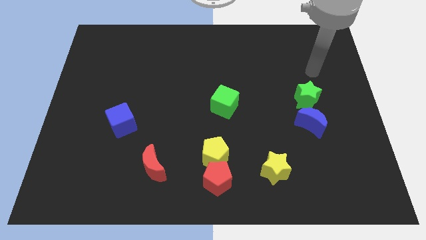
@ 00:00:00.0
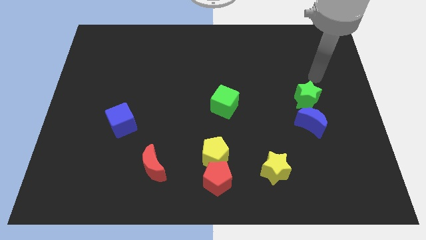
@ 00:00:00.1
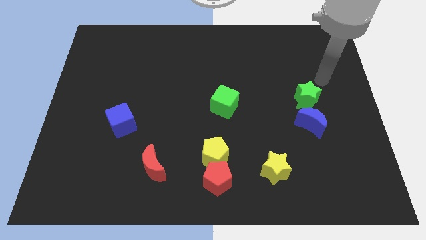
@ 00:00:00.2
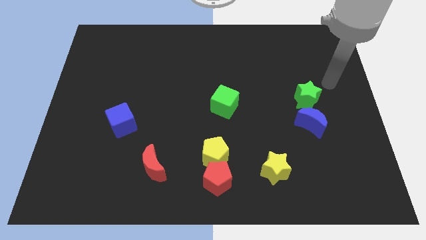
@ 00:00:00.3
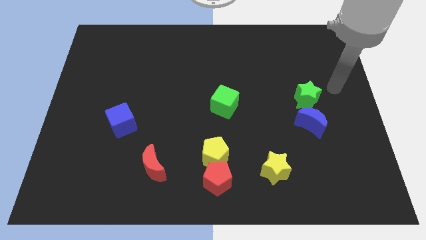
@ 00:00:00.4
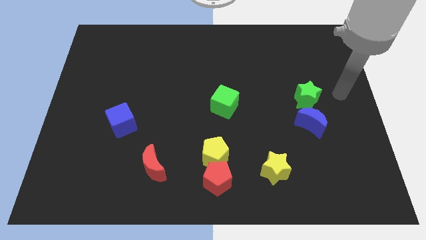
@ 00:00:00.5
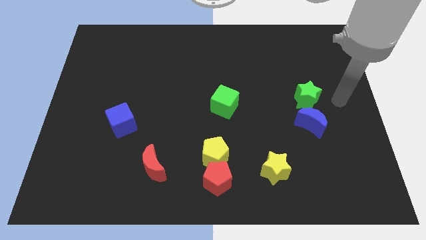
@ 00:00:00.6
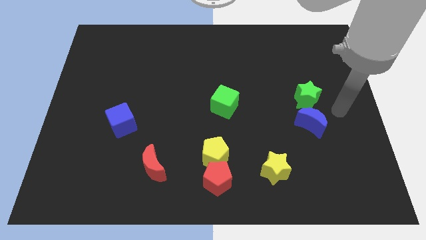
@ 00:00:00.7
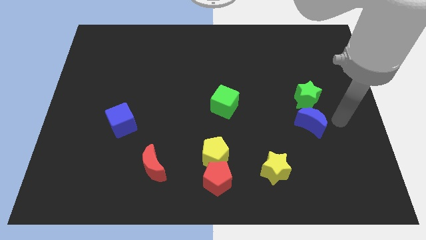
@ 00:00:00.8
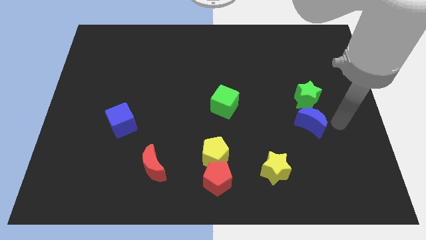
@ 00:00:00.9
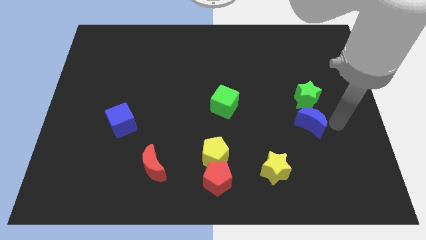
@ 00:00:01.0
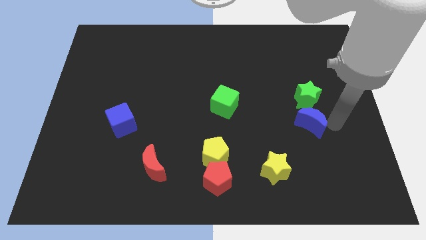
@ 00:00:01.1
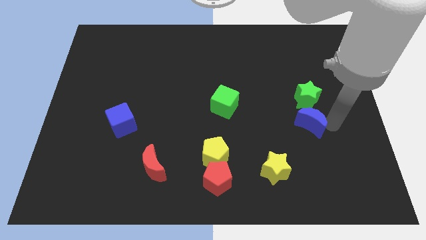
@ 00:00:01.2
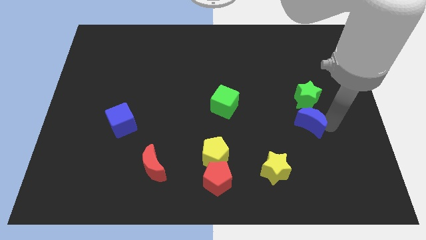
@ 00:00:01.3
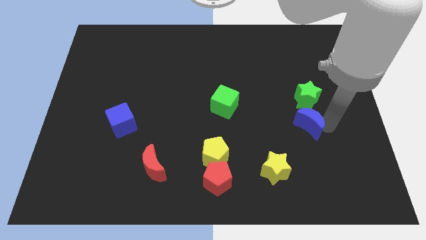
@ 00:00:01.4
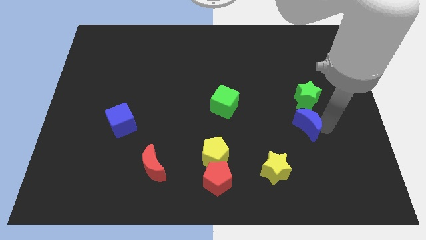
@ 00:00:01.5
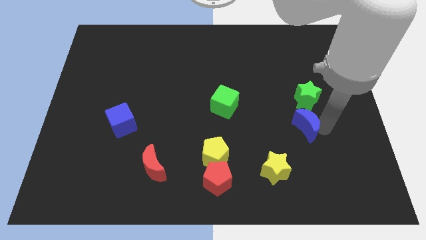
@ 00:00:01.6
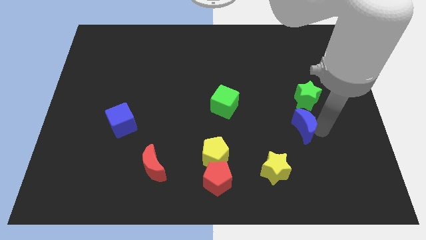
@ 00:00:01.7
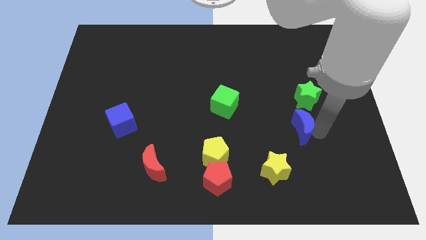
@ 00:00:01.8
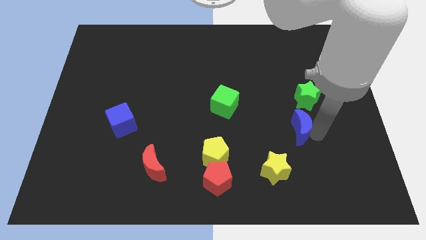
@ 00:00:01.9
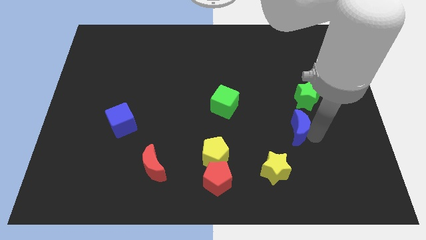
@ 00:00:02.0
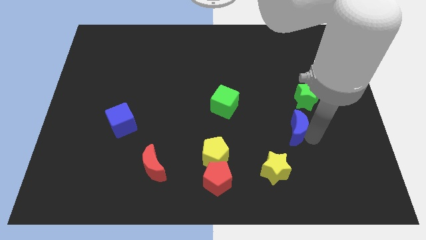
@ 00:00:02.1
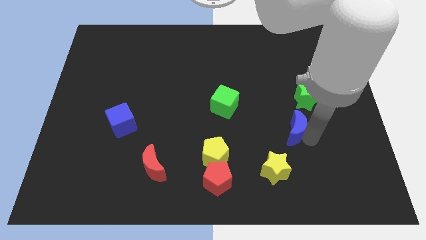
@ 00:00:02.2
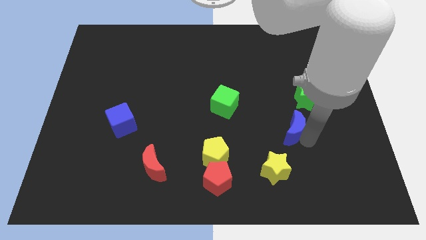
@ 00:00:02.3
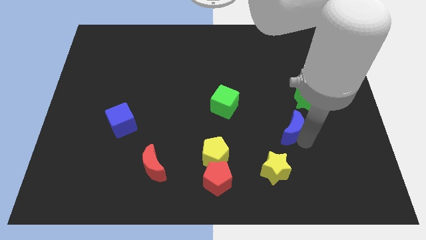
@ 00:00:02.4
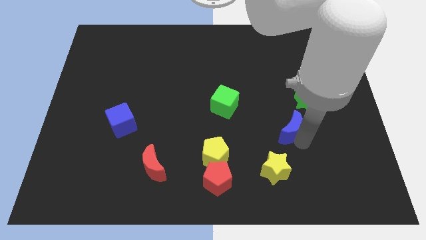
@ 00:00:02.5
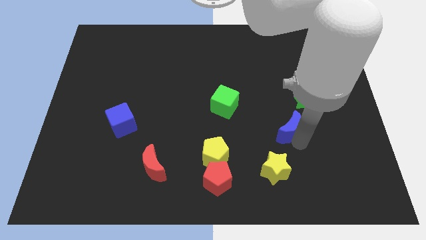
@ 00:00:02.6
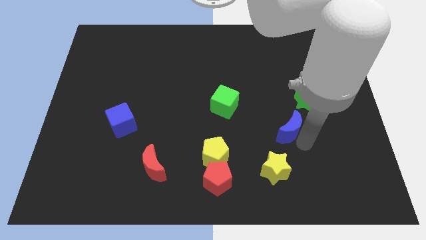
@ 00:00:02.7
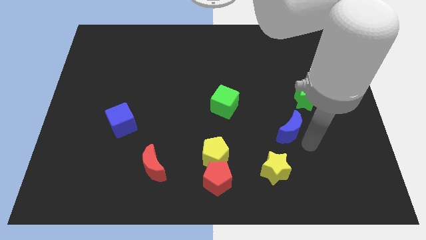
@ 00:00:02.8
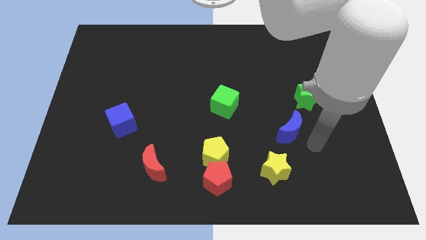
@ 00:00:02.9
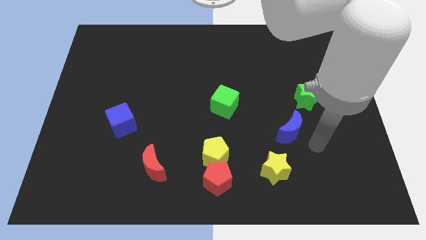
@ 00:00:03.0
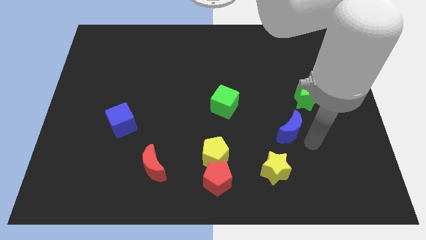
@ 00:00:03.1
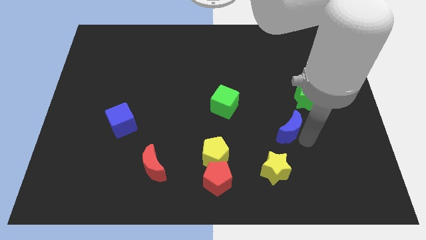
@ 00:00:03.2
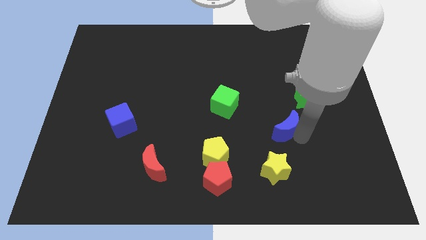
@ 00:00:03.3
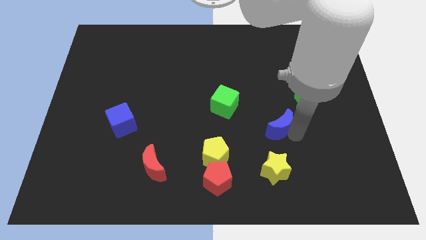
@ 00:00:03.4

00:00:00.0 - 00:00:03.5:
move the blue moon a bit to the left

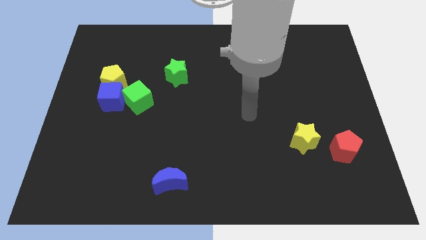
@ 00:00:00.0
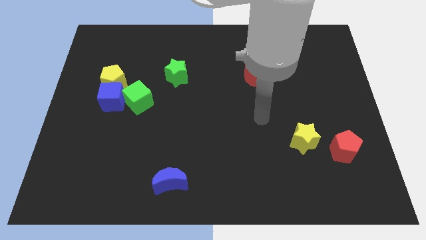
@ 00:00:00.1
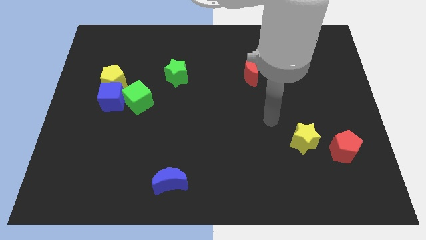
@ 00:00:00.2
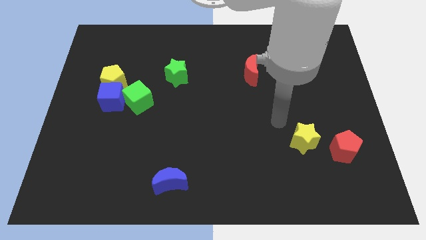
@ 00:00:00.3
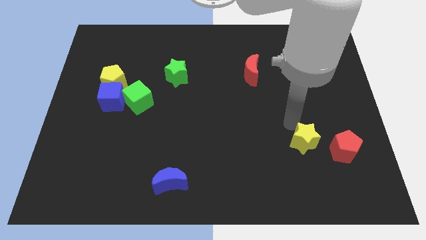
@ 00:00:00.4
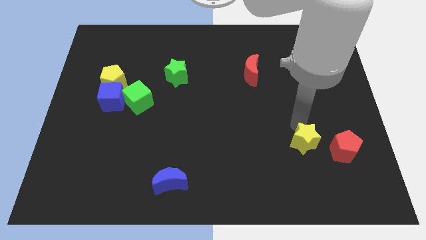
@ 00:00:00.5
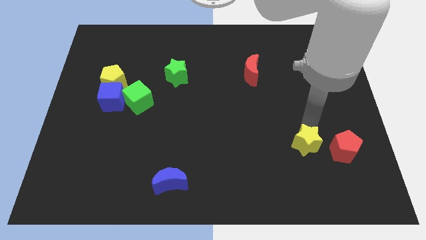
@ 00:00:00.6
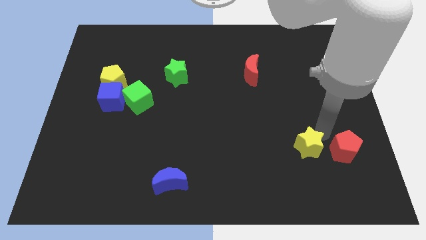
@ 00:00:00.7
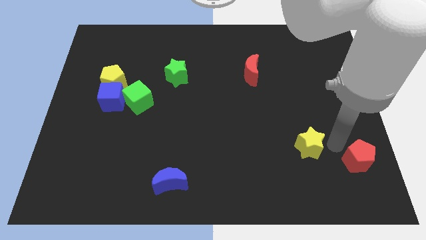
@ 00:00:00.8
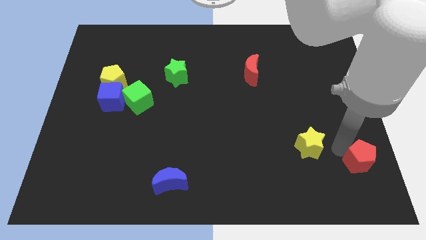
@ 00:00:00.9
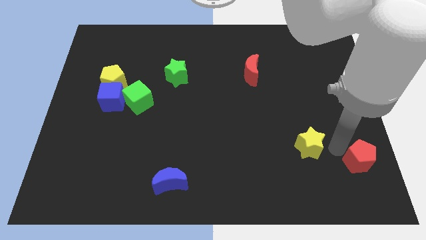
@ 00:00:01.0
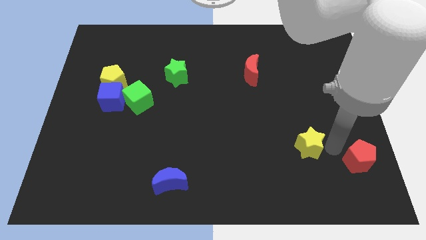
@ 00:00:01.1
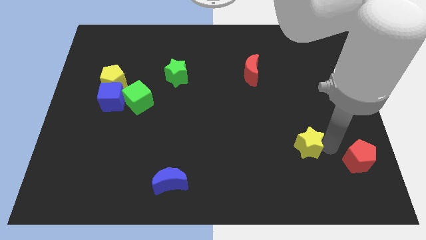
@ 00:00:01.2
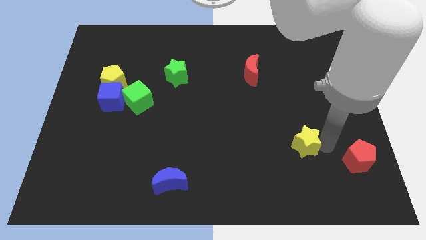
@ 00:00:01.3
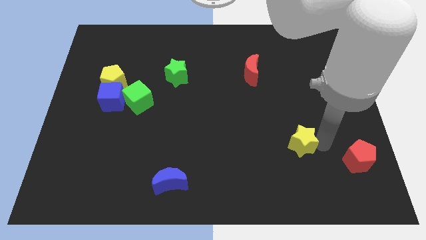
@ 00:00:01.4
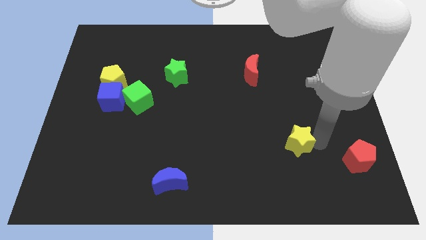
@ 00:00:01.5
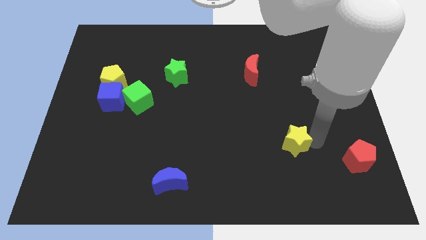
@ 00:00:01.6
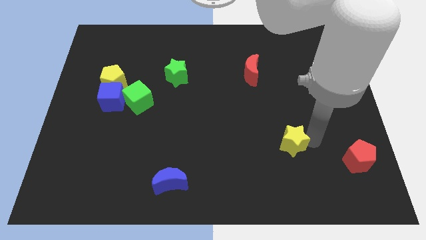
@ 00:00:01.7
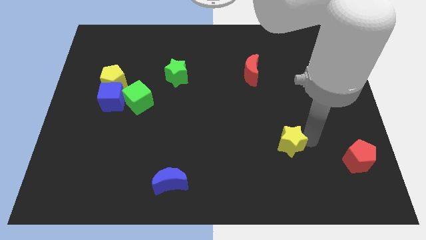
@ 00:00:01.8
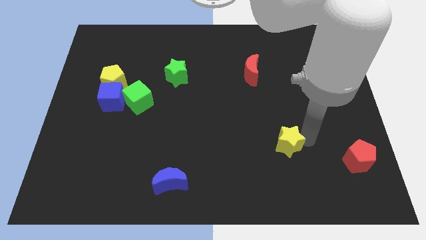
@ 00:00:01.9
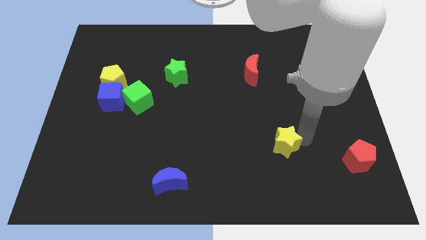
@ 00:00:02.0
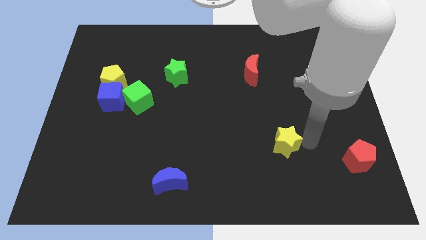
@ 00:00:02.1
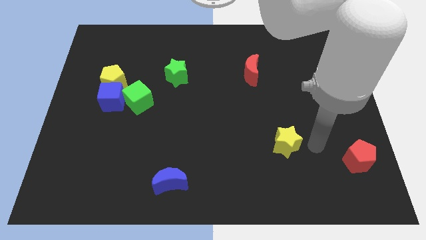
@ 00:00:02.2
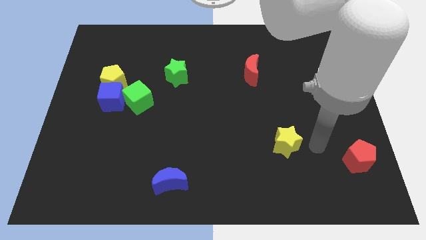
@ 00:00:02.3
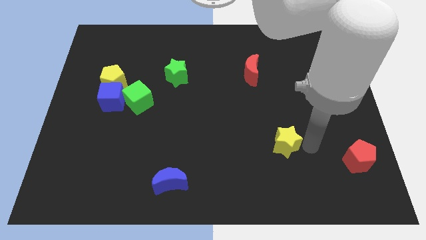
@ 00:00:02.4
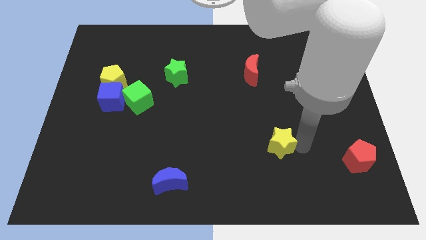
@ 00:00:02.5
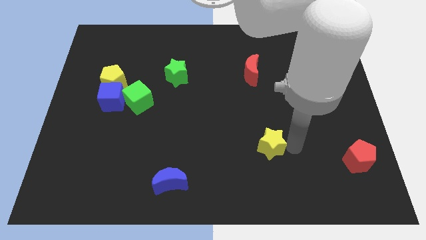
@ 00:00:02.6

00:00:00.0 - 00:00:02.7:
slightly push the yellow star to the left

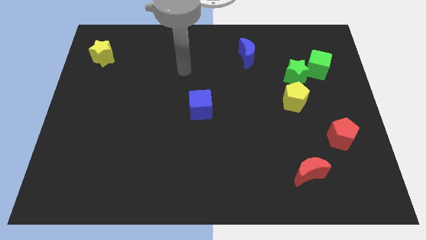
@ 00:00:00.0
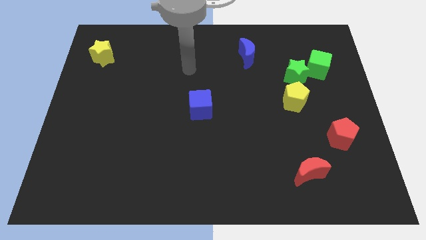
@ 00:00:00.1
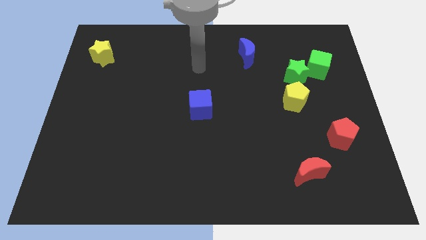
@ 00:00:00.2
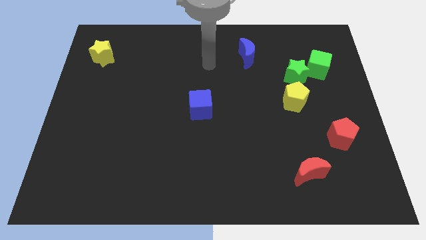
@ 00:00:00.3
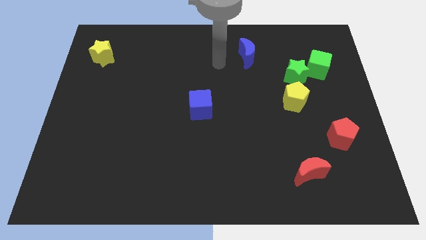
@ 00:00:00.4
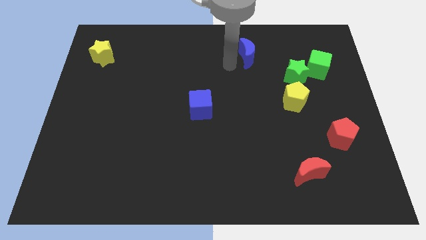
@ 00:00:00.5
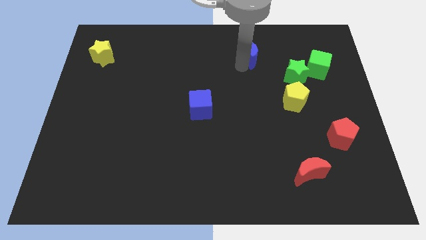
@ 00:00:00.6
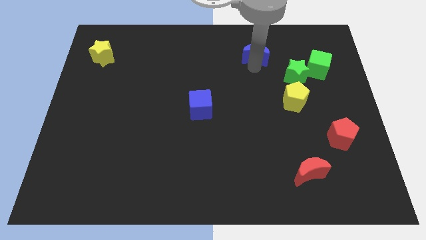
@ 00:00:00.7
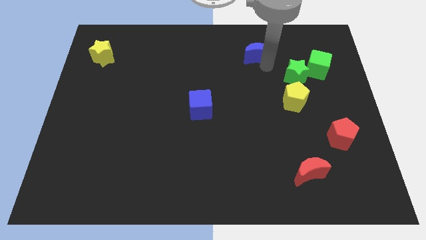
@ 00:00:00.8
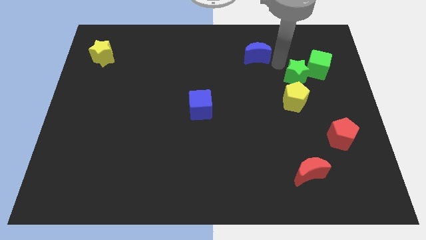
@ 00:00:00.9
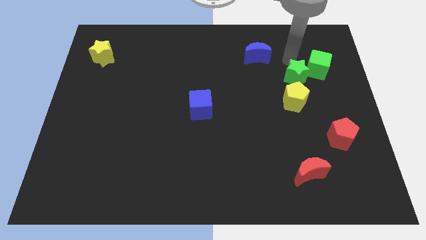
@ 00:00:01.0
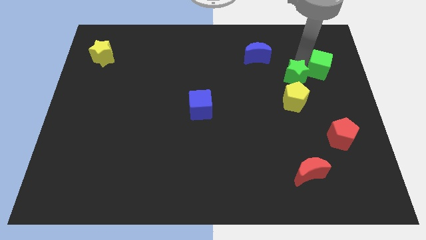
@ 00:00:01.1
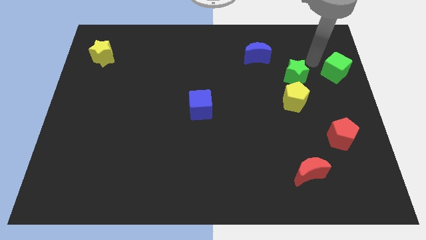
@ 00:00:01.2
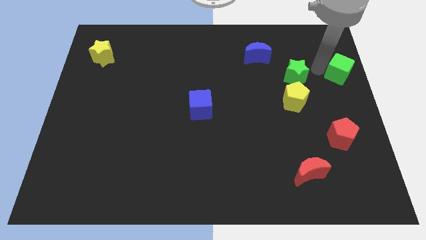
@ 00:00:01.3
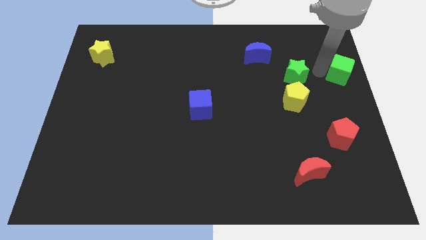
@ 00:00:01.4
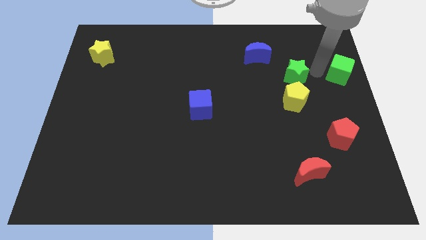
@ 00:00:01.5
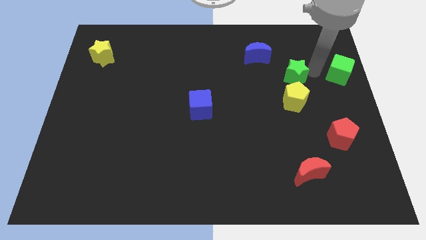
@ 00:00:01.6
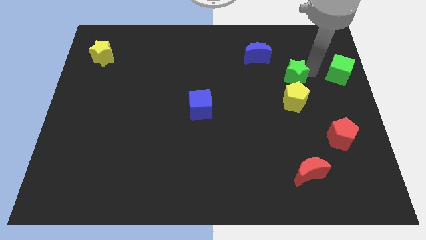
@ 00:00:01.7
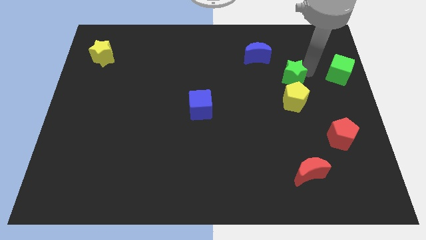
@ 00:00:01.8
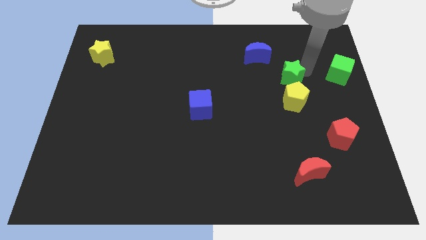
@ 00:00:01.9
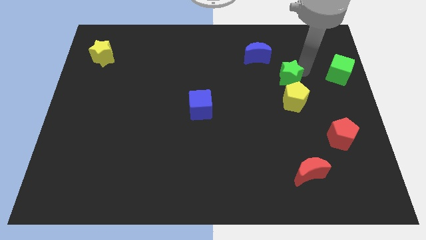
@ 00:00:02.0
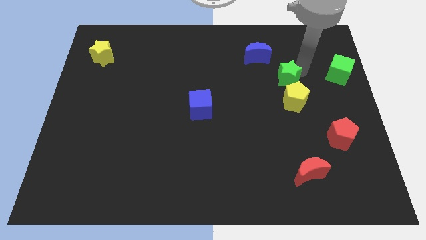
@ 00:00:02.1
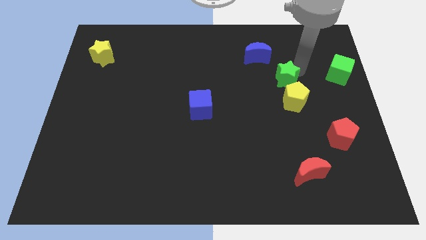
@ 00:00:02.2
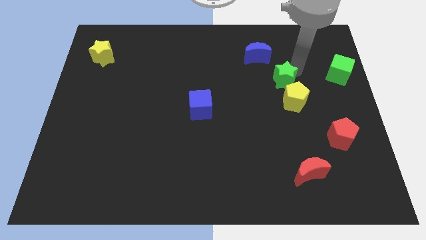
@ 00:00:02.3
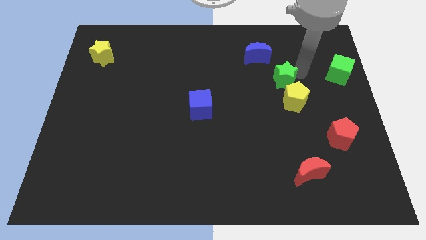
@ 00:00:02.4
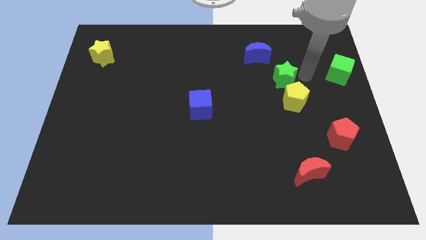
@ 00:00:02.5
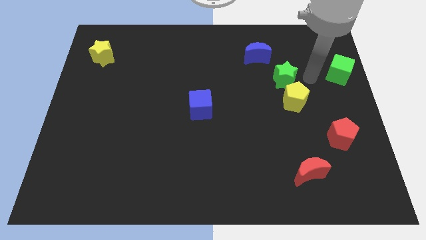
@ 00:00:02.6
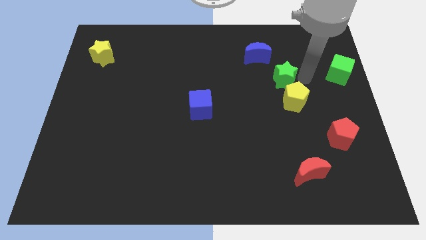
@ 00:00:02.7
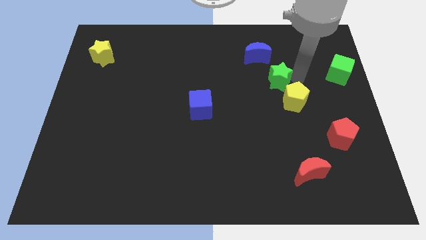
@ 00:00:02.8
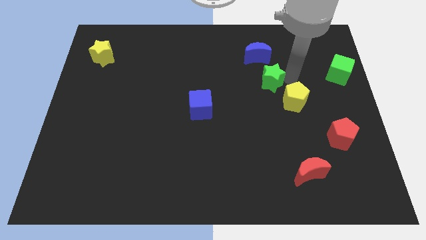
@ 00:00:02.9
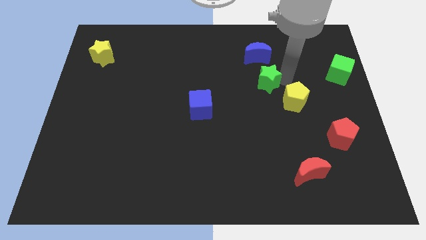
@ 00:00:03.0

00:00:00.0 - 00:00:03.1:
push the green star a bit left
